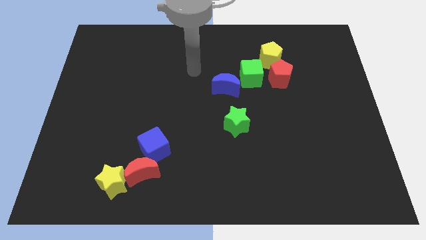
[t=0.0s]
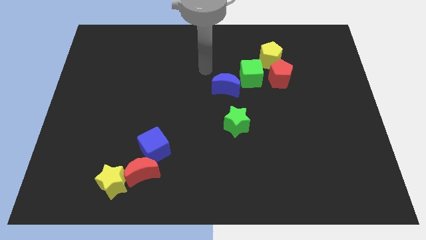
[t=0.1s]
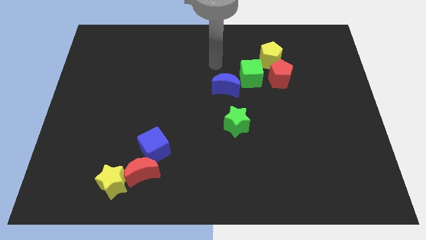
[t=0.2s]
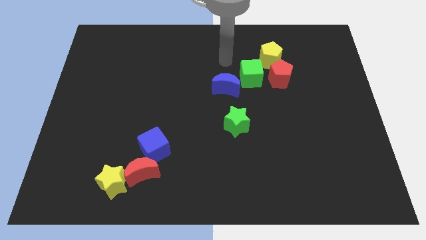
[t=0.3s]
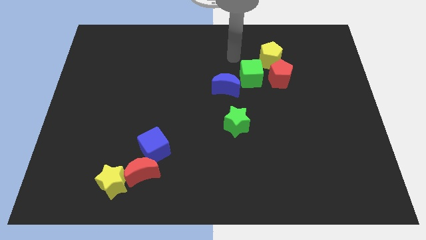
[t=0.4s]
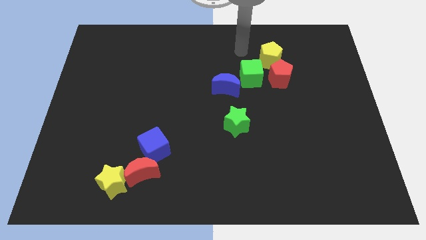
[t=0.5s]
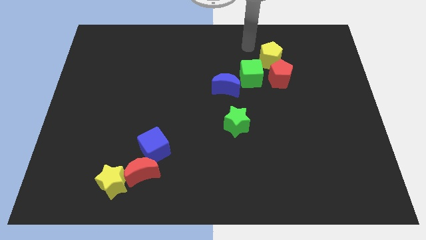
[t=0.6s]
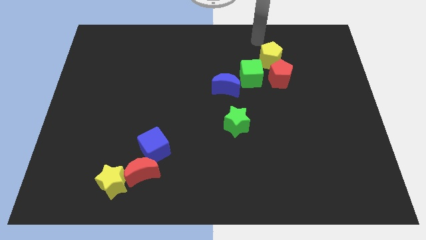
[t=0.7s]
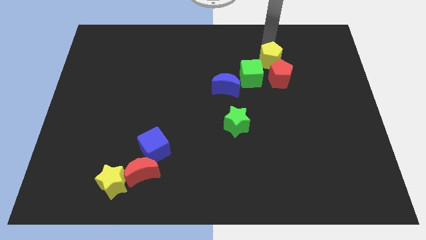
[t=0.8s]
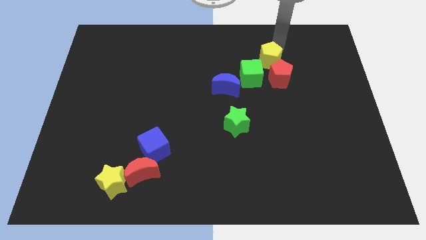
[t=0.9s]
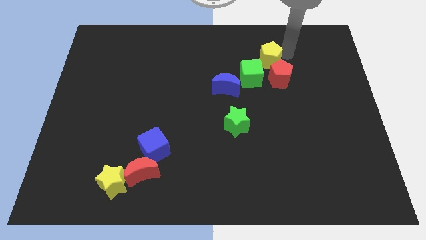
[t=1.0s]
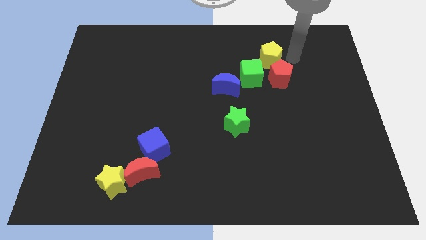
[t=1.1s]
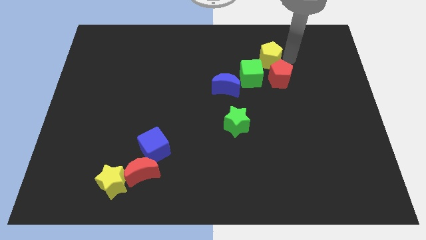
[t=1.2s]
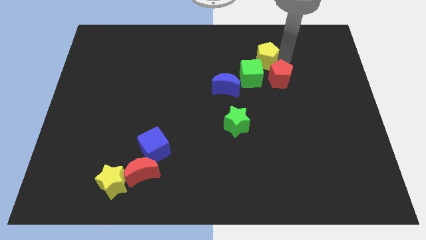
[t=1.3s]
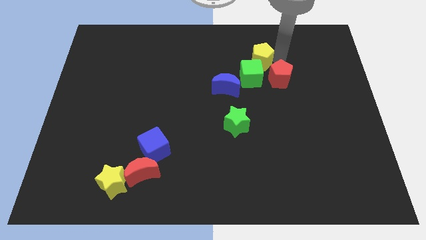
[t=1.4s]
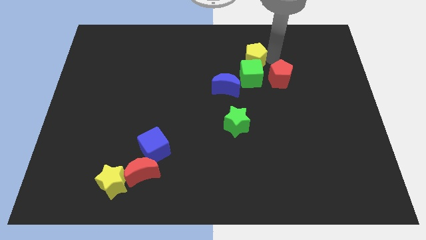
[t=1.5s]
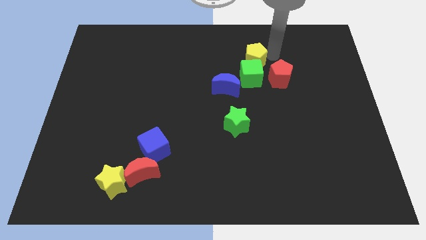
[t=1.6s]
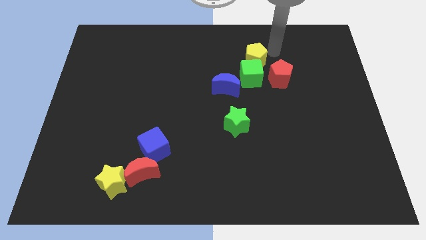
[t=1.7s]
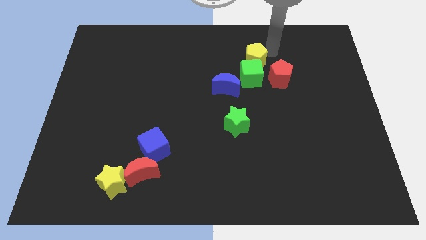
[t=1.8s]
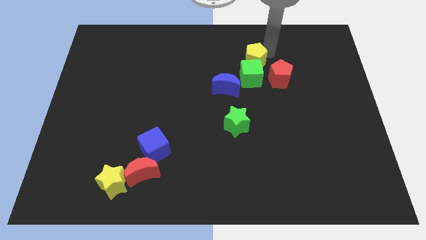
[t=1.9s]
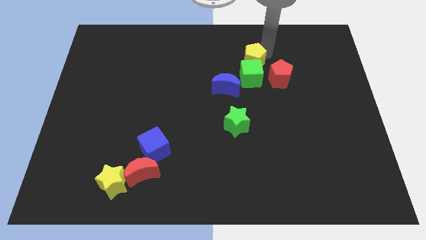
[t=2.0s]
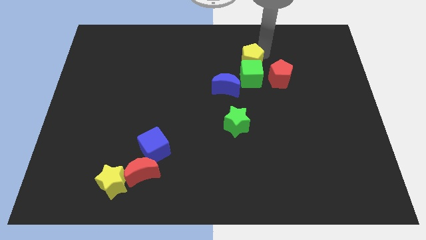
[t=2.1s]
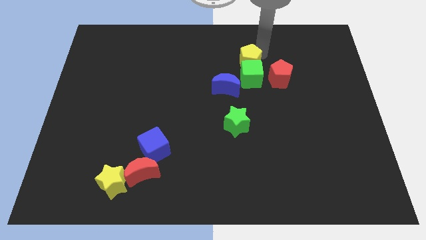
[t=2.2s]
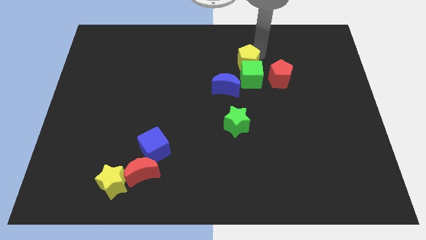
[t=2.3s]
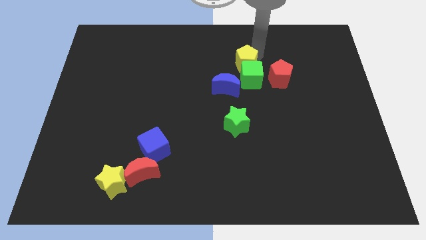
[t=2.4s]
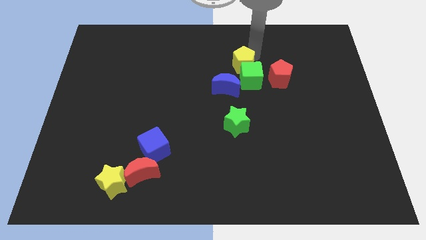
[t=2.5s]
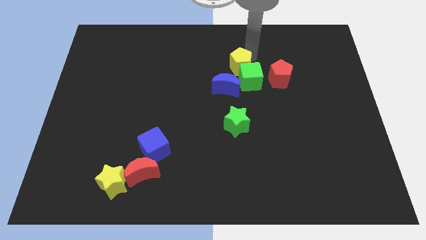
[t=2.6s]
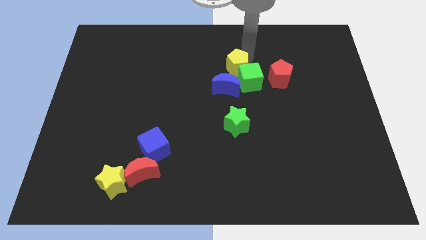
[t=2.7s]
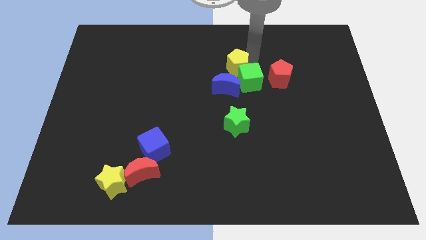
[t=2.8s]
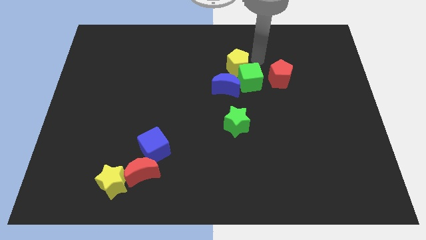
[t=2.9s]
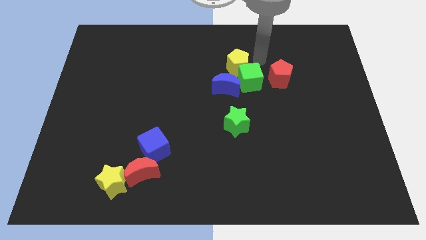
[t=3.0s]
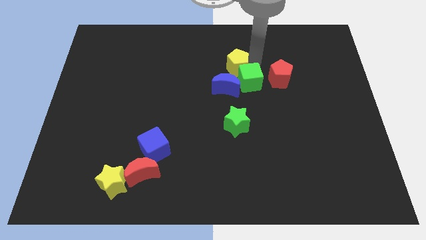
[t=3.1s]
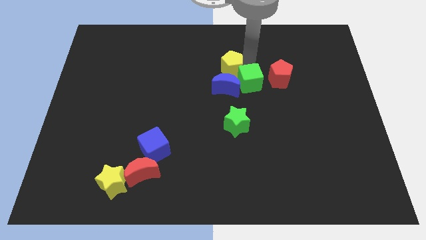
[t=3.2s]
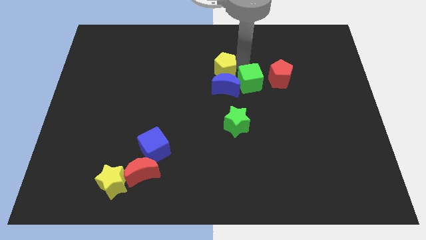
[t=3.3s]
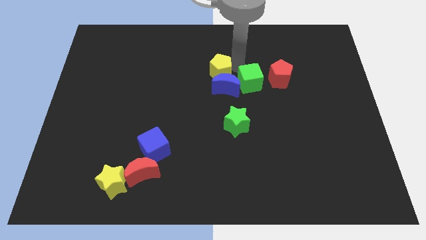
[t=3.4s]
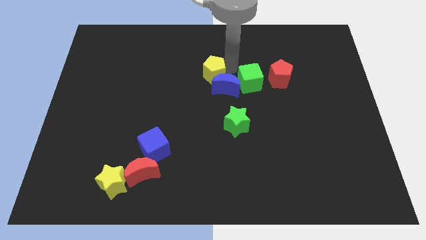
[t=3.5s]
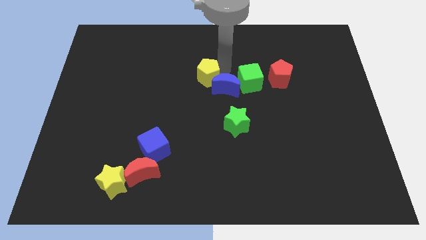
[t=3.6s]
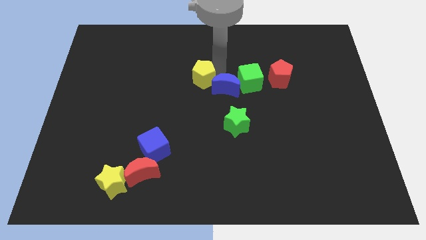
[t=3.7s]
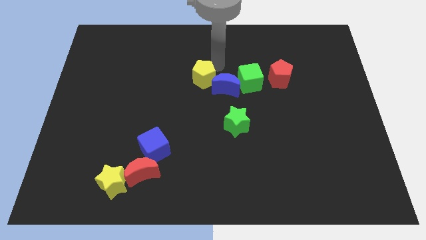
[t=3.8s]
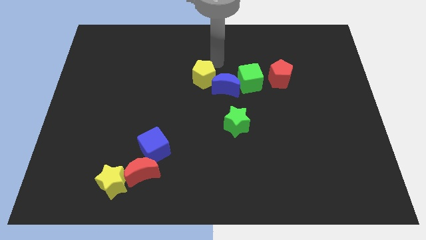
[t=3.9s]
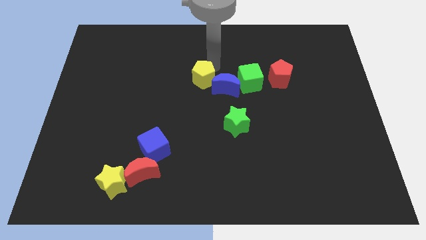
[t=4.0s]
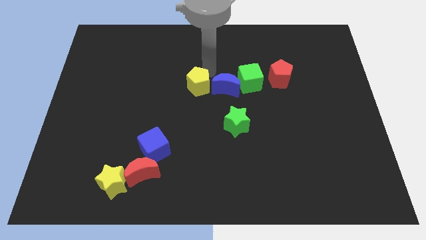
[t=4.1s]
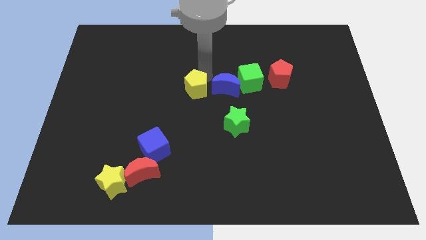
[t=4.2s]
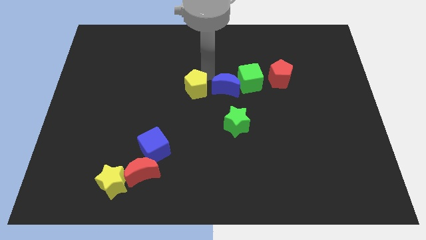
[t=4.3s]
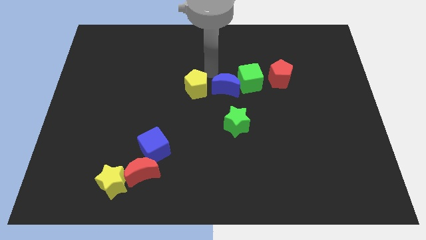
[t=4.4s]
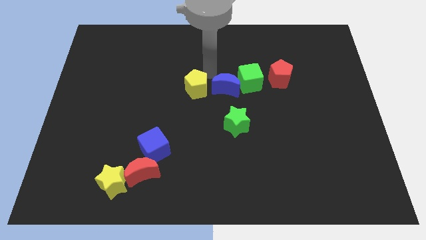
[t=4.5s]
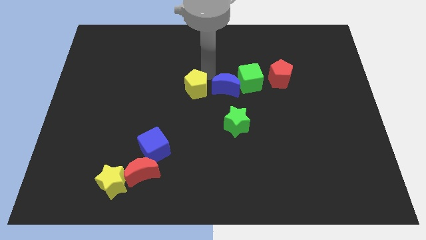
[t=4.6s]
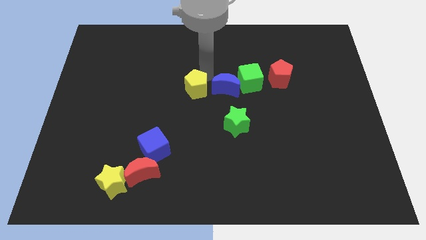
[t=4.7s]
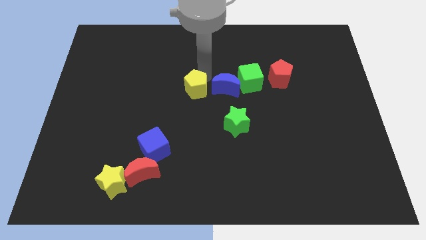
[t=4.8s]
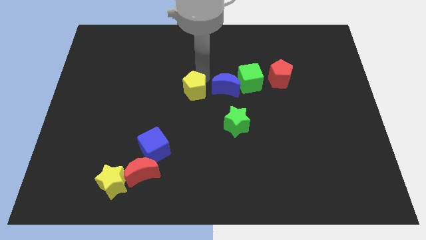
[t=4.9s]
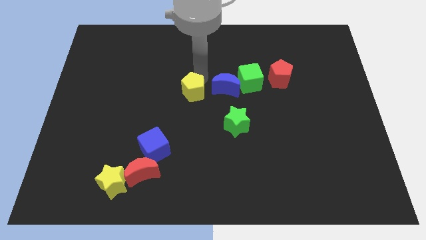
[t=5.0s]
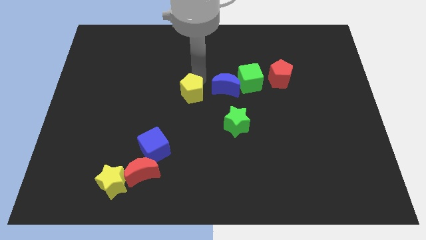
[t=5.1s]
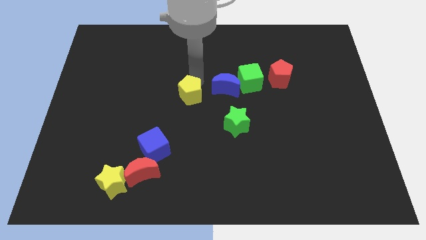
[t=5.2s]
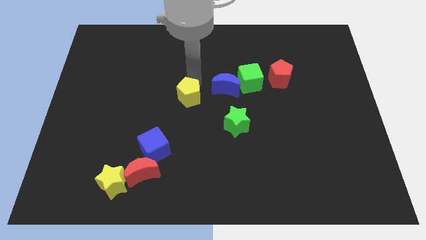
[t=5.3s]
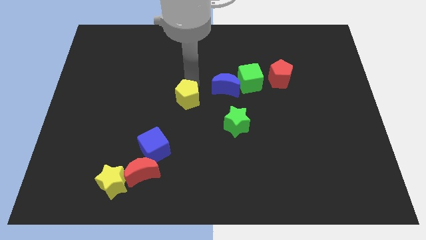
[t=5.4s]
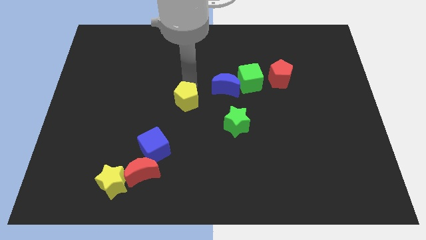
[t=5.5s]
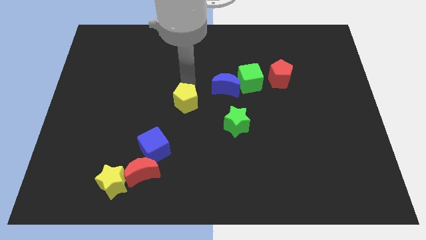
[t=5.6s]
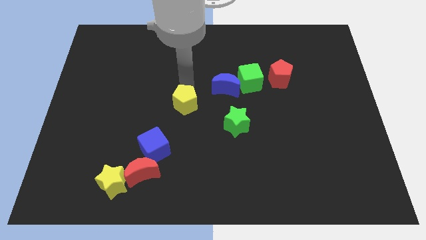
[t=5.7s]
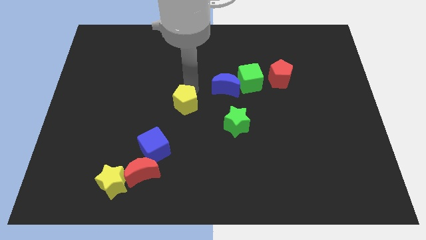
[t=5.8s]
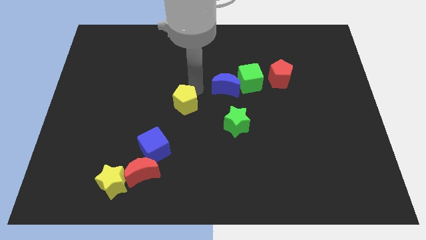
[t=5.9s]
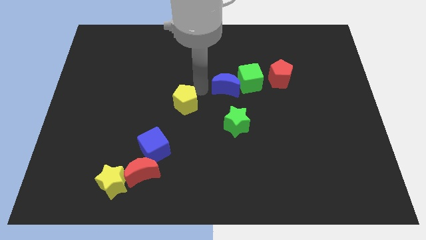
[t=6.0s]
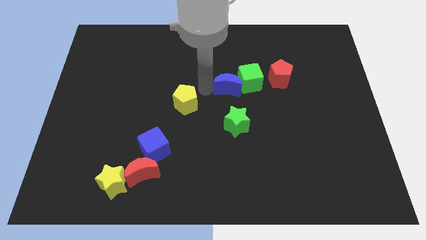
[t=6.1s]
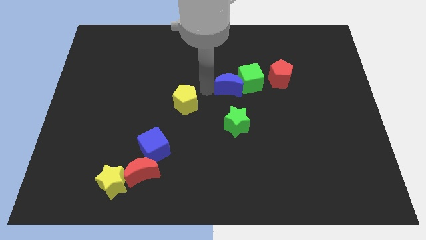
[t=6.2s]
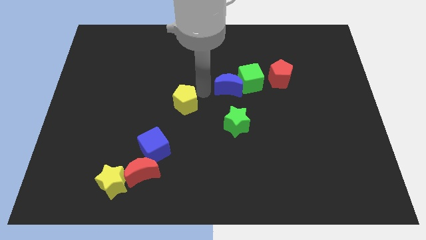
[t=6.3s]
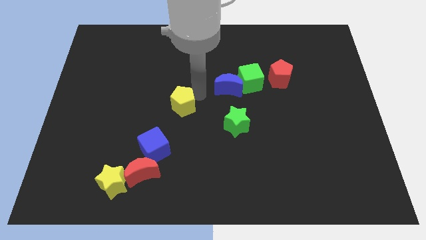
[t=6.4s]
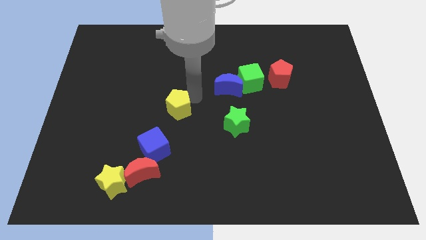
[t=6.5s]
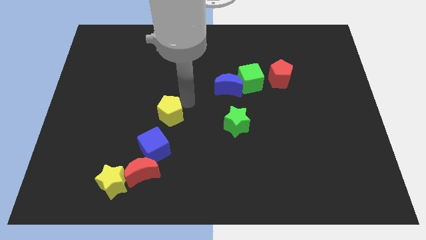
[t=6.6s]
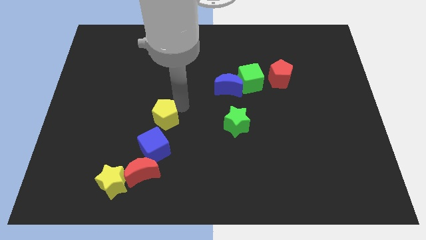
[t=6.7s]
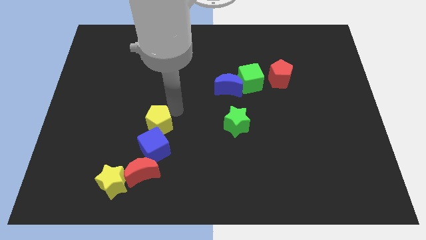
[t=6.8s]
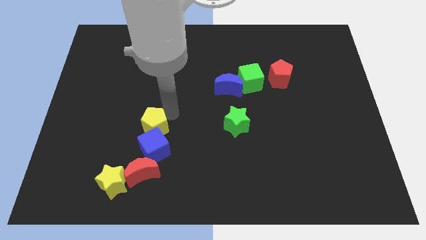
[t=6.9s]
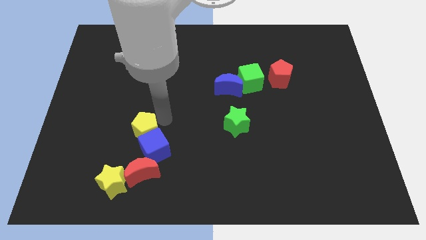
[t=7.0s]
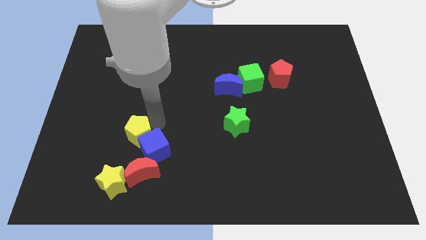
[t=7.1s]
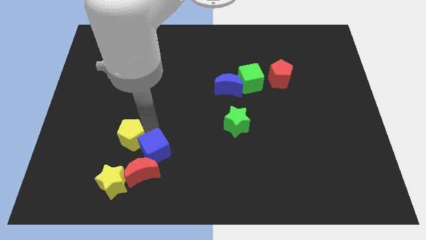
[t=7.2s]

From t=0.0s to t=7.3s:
move the yellow pentagon to the top left of the red moon
